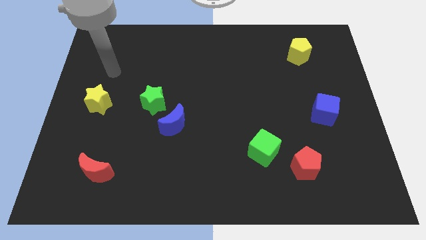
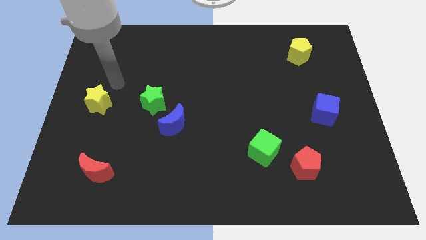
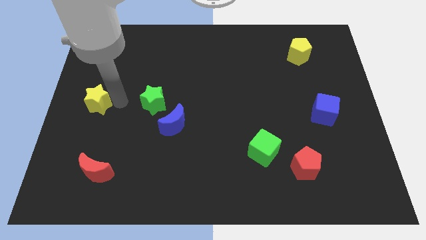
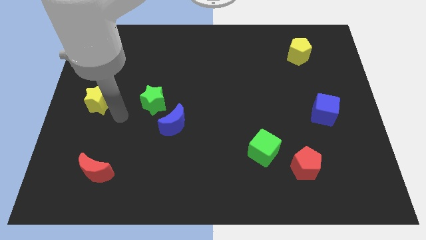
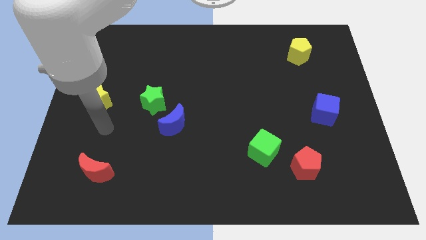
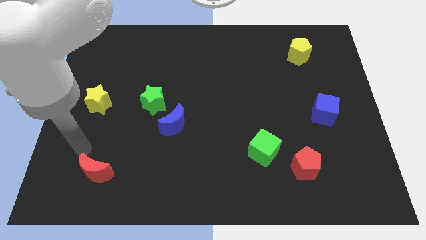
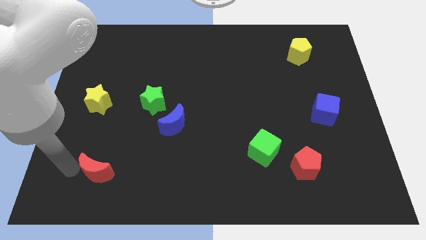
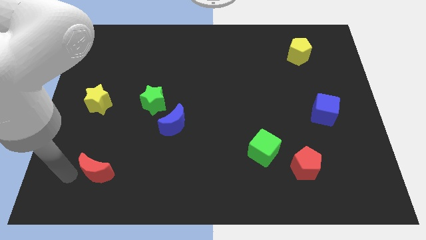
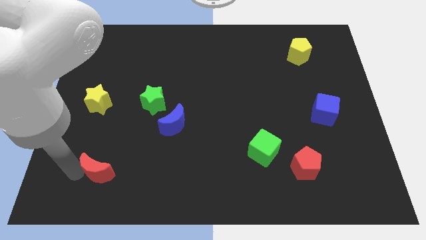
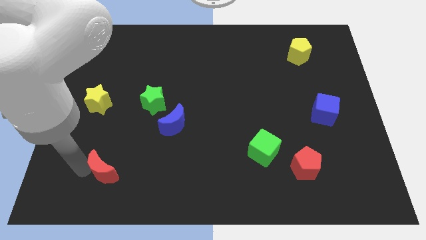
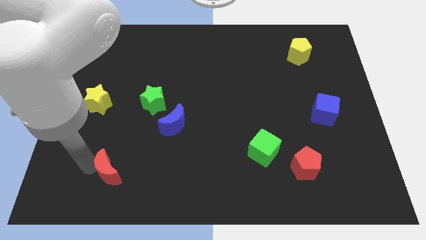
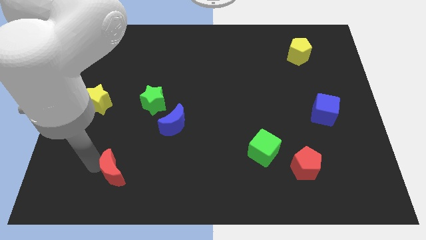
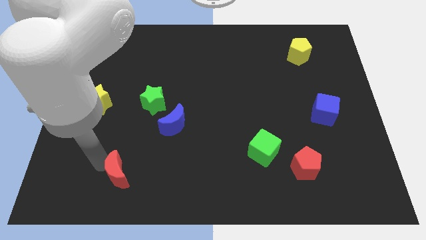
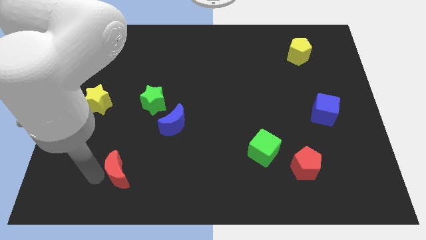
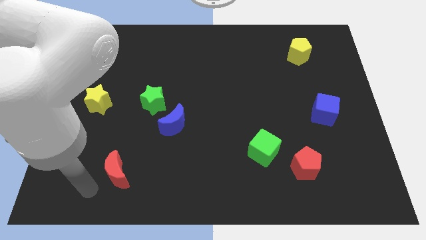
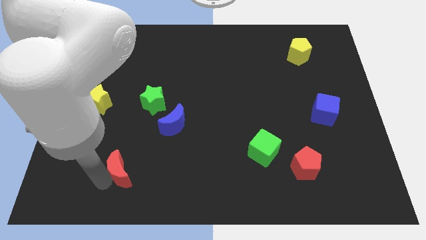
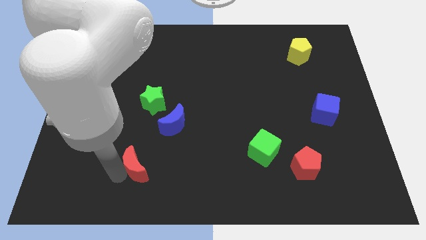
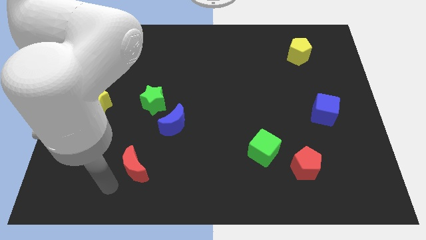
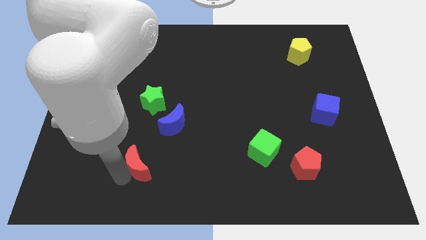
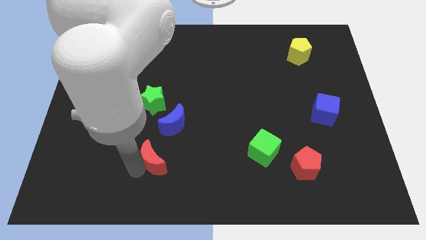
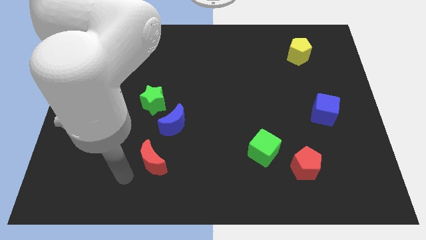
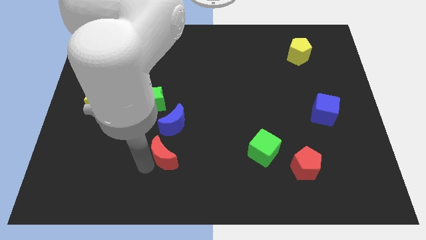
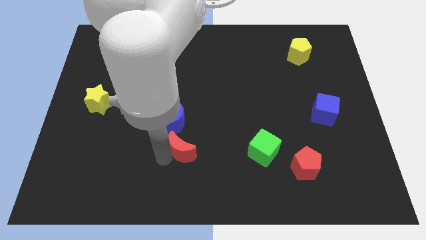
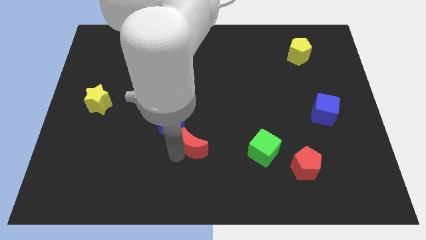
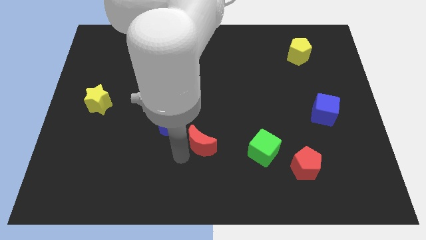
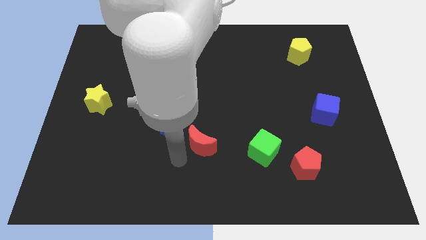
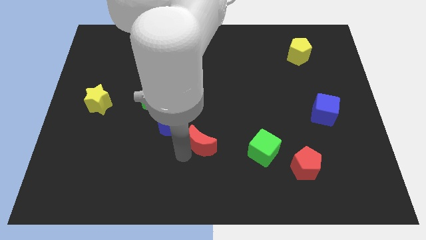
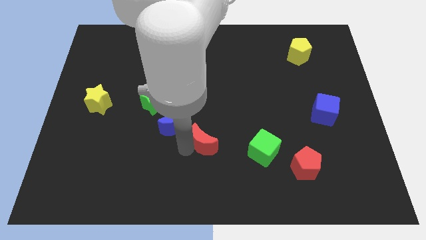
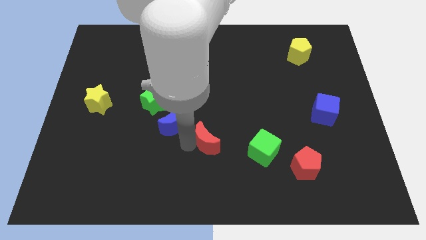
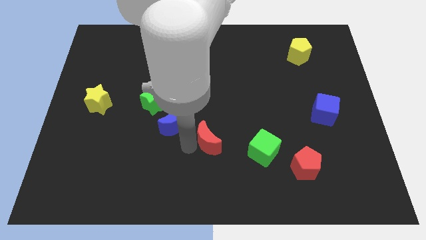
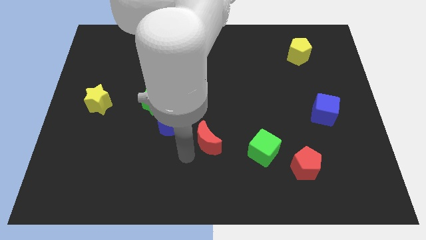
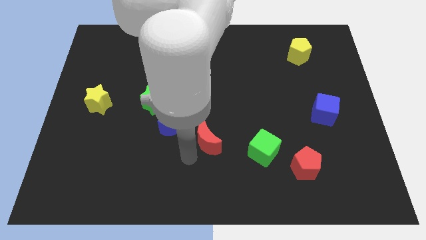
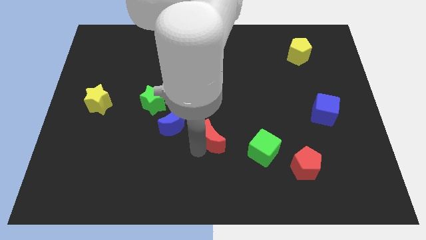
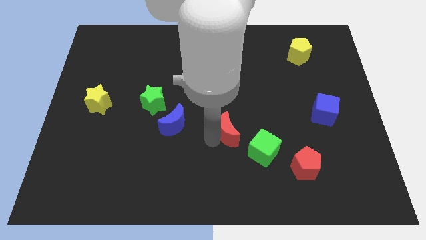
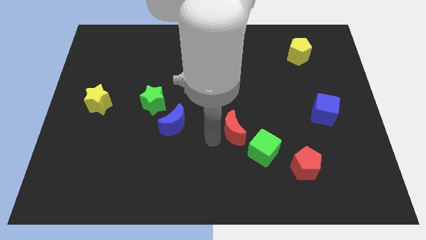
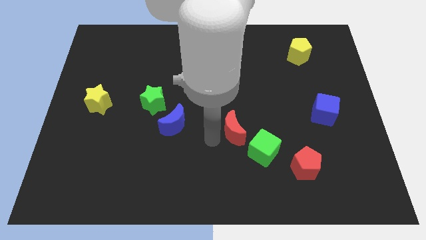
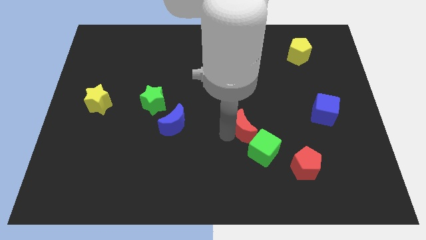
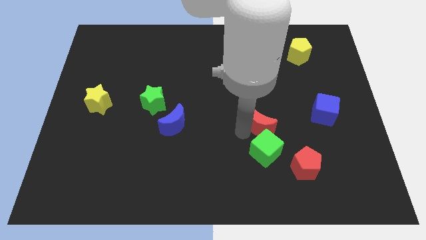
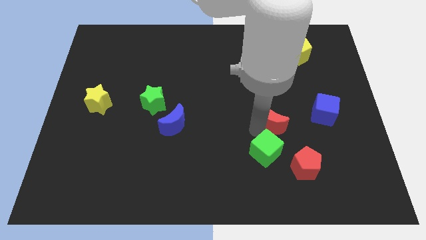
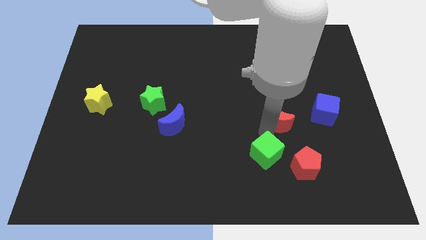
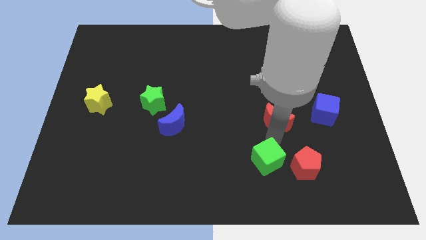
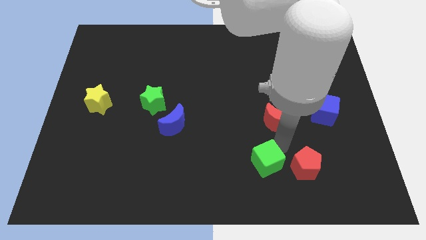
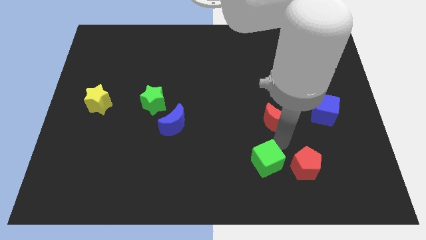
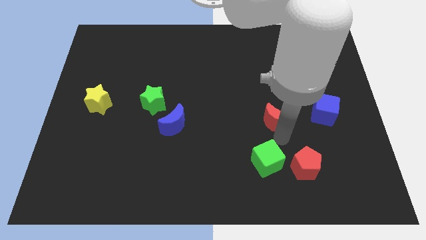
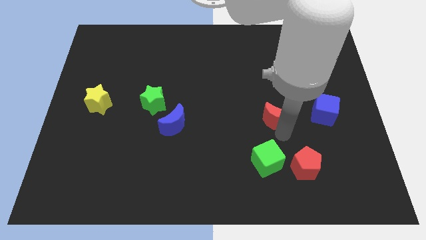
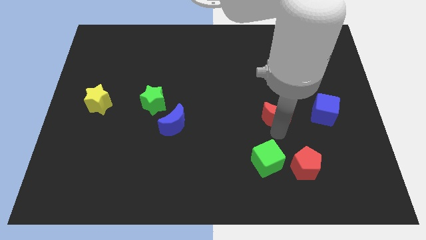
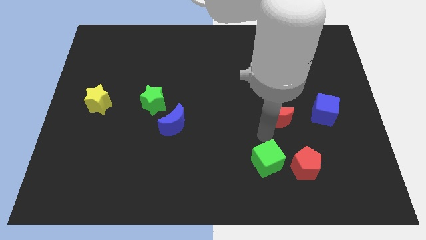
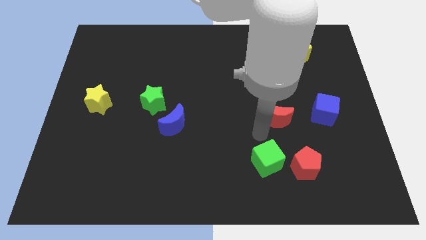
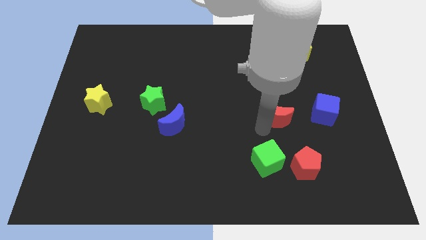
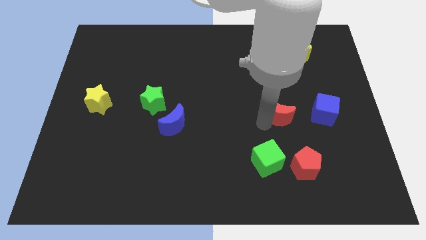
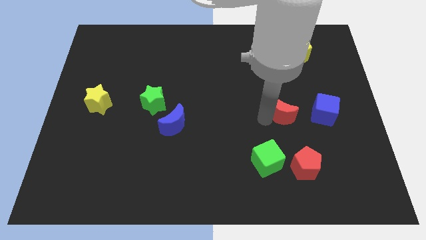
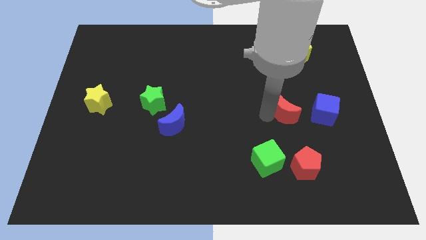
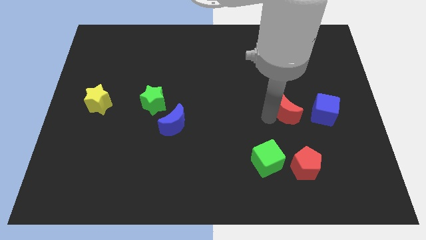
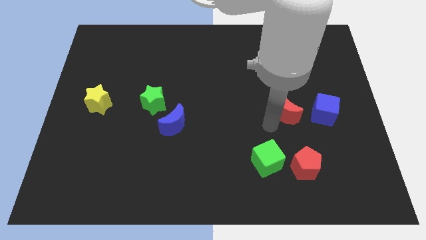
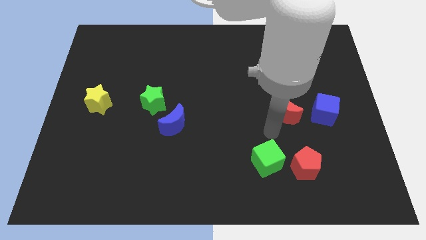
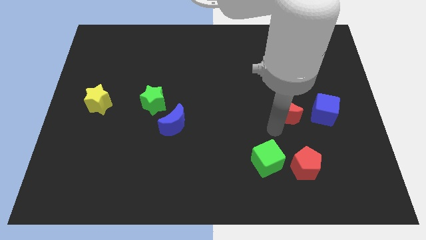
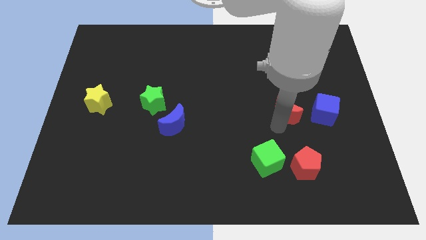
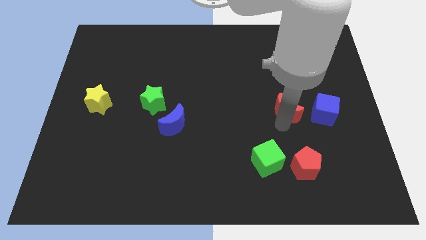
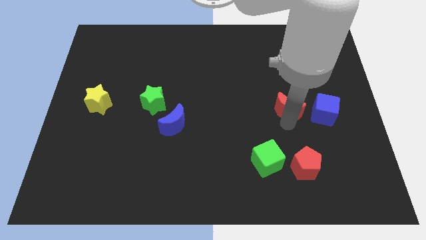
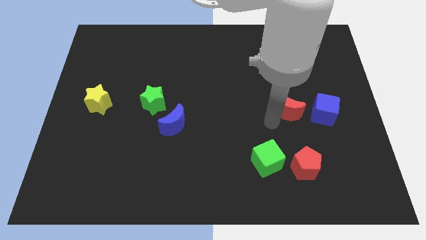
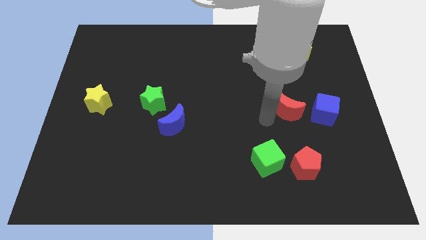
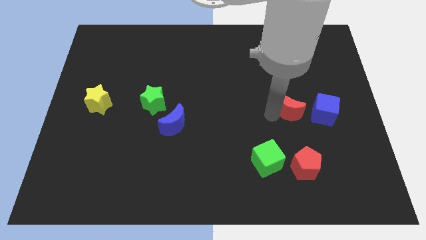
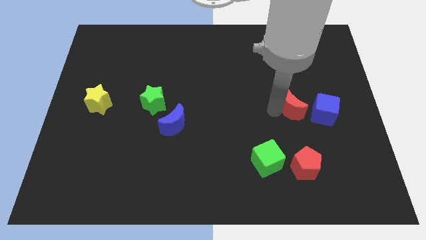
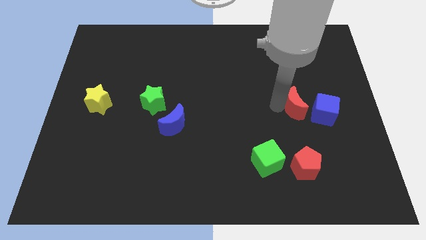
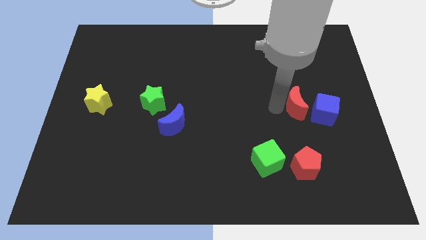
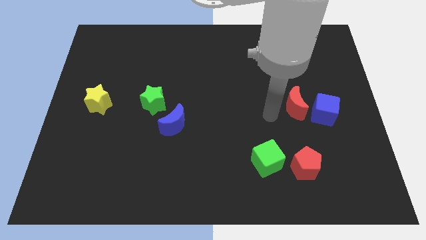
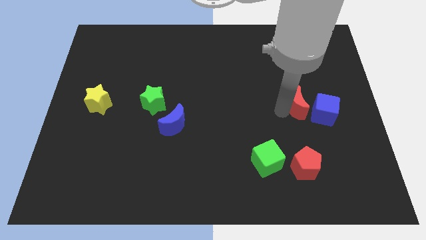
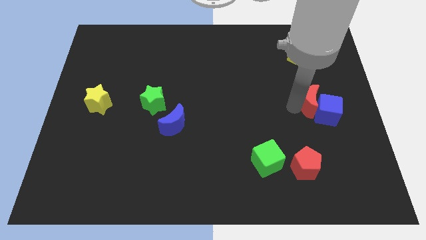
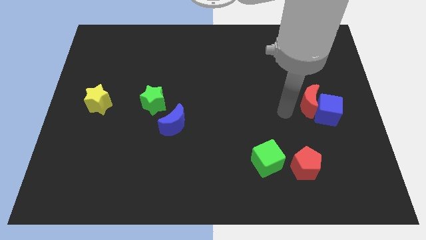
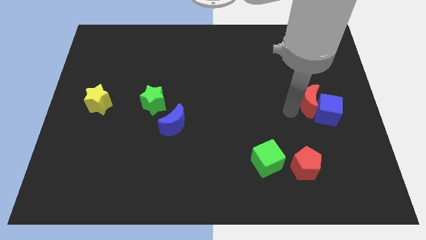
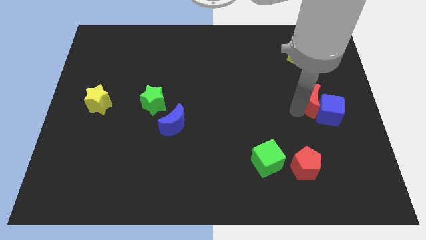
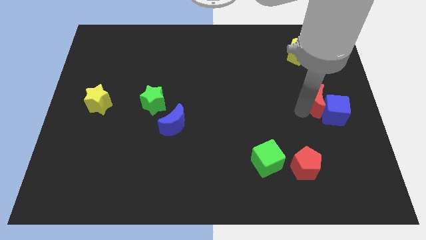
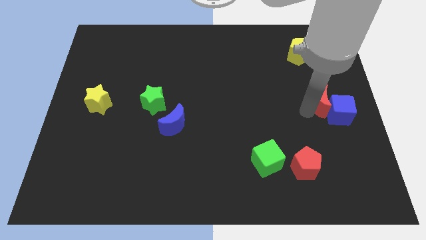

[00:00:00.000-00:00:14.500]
slide the red moon to the right side
